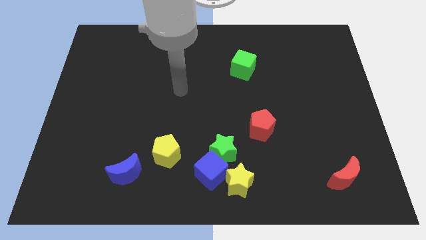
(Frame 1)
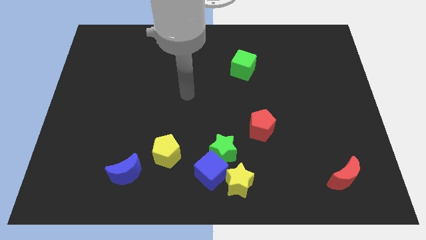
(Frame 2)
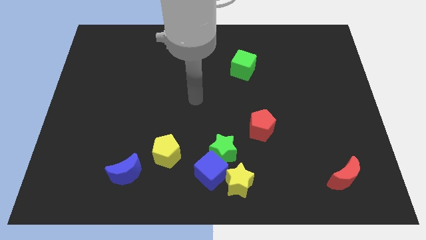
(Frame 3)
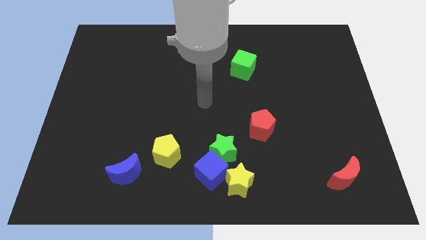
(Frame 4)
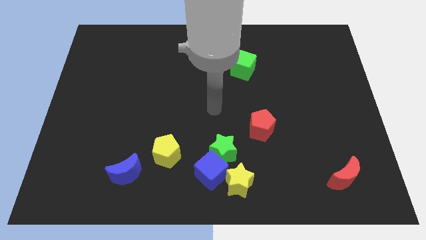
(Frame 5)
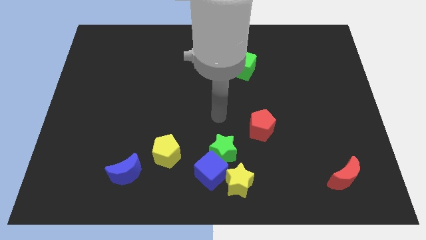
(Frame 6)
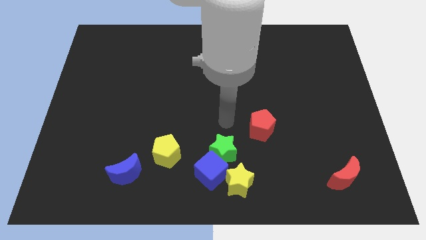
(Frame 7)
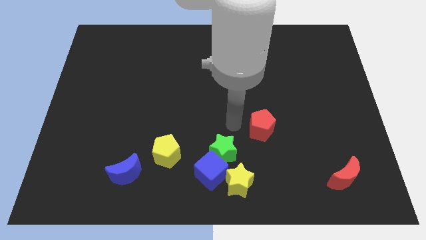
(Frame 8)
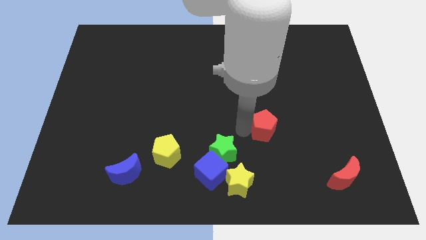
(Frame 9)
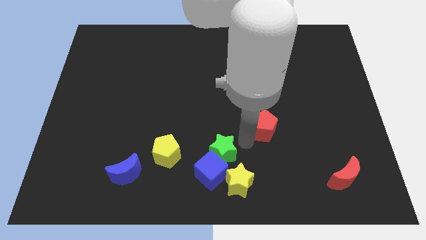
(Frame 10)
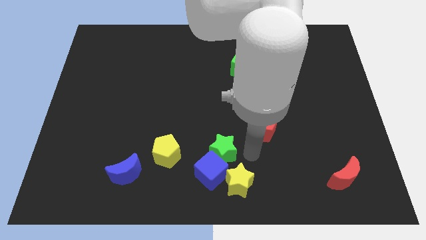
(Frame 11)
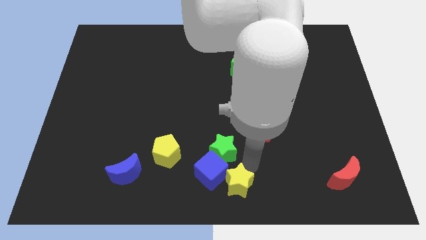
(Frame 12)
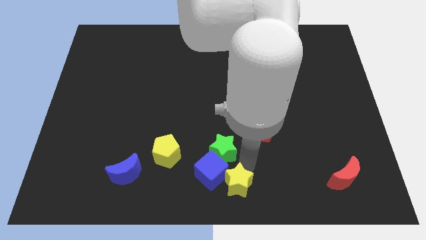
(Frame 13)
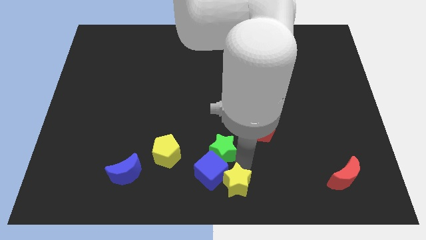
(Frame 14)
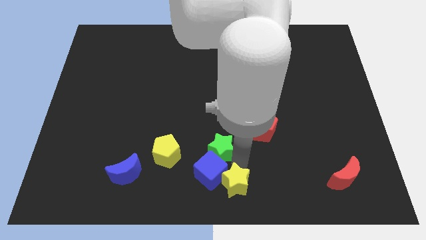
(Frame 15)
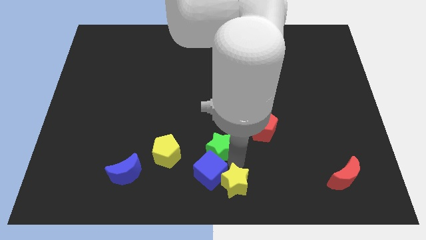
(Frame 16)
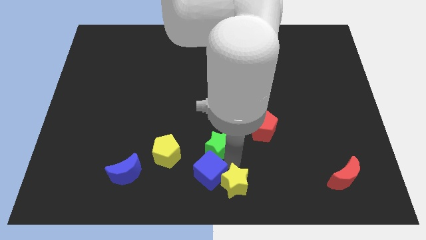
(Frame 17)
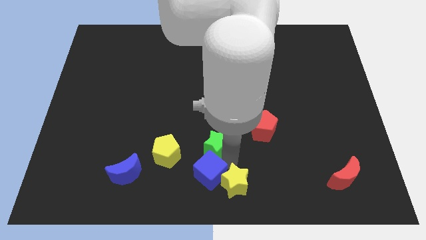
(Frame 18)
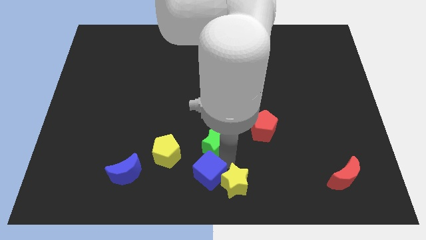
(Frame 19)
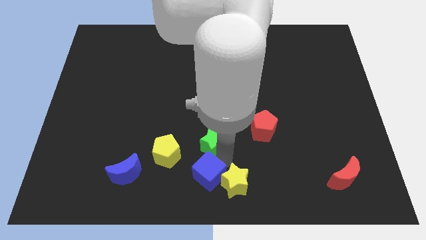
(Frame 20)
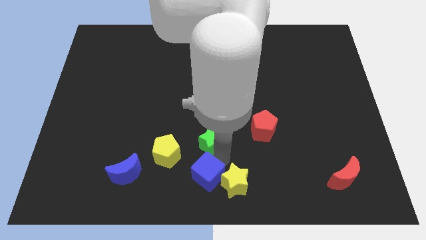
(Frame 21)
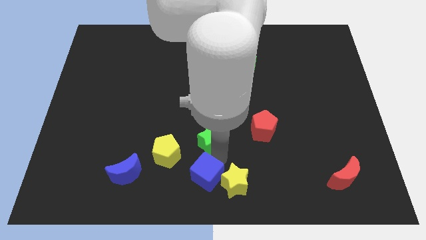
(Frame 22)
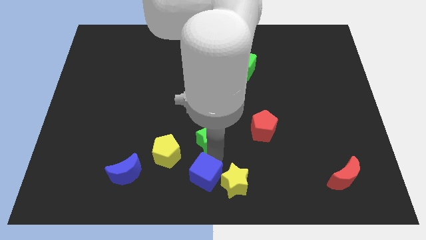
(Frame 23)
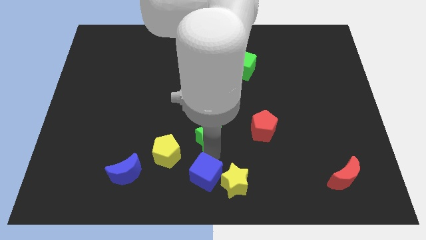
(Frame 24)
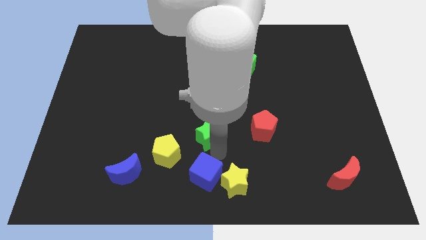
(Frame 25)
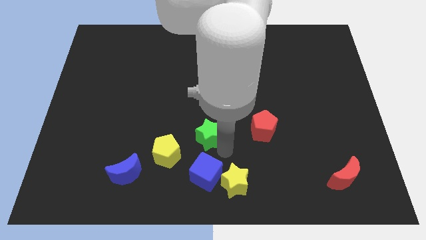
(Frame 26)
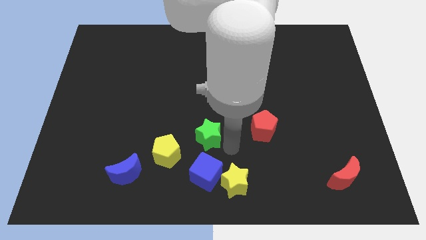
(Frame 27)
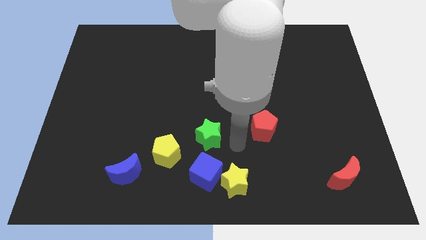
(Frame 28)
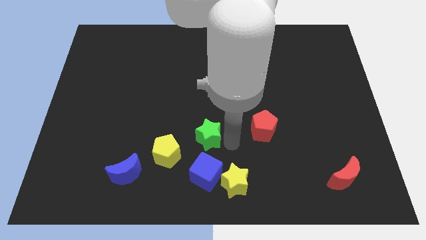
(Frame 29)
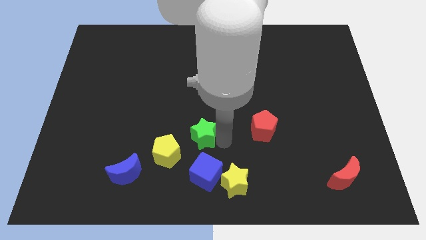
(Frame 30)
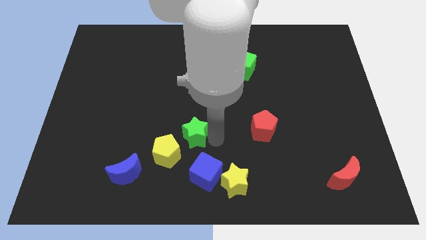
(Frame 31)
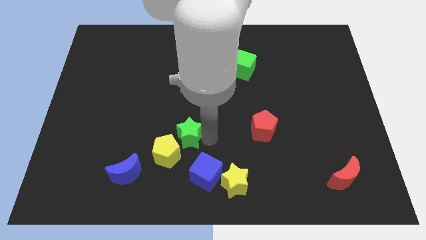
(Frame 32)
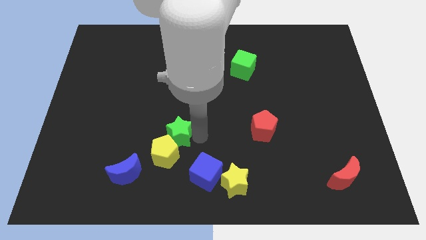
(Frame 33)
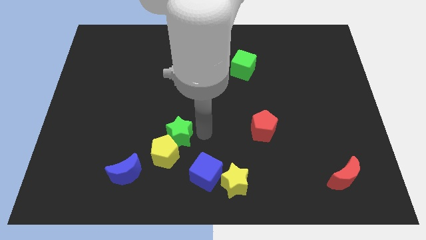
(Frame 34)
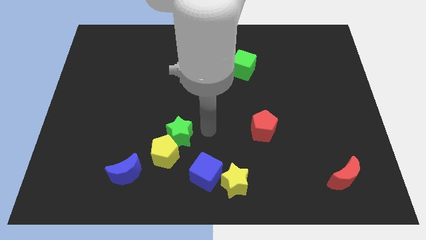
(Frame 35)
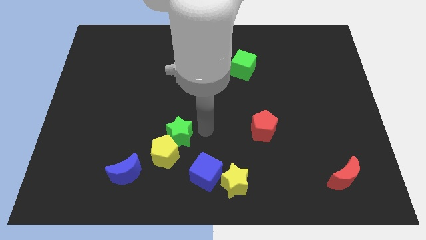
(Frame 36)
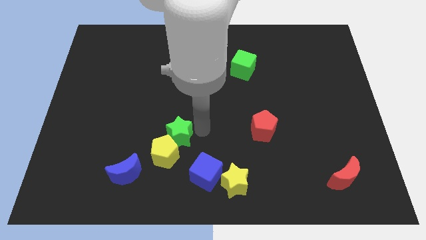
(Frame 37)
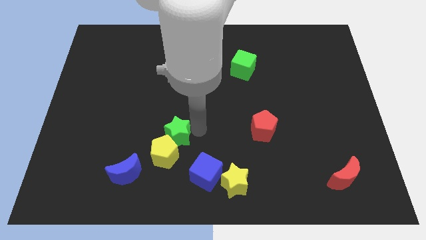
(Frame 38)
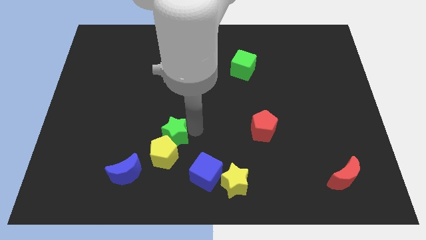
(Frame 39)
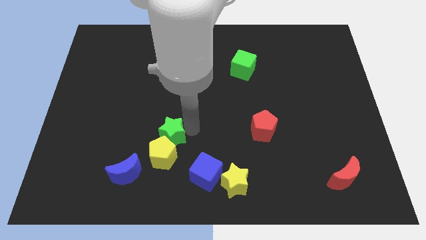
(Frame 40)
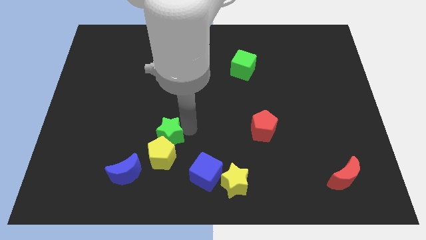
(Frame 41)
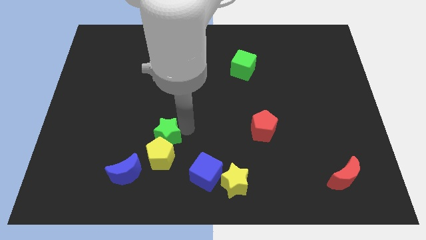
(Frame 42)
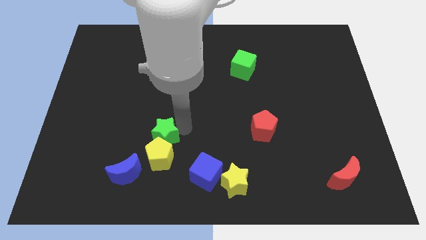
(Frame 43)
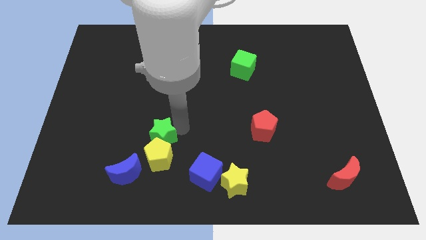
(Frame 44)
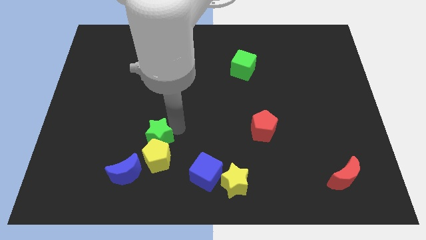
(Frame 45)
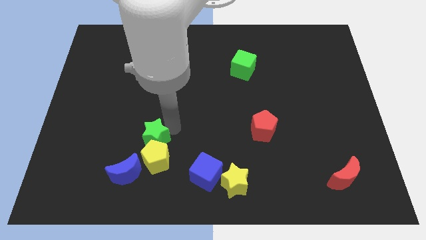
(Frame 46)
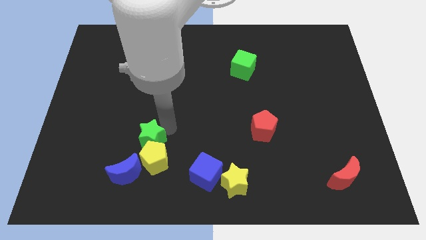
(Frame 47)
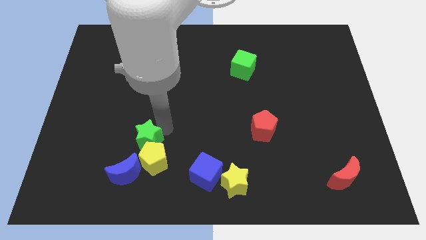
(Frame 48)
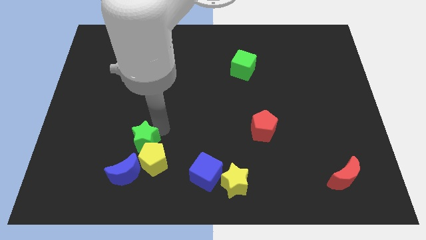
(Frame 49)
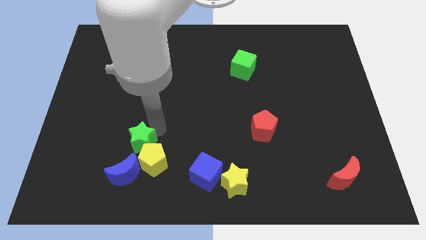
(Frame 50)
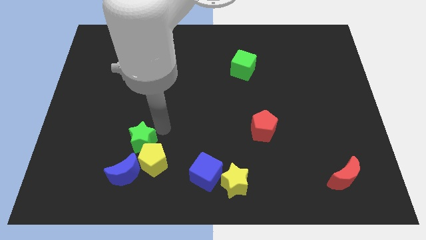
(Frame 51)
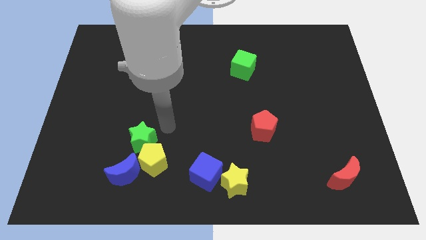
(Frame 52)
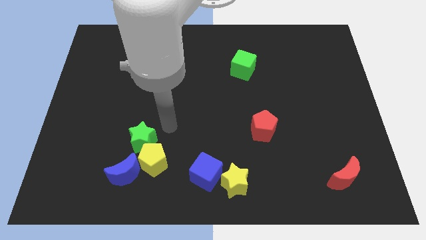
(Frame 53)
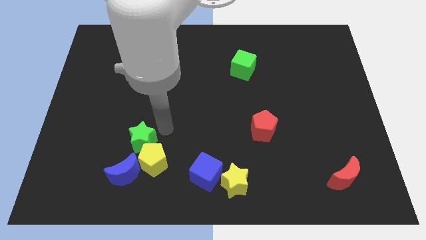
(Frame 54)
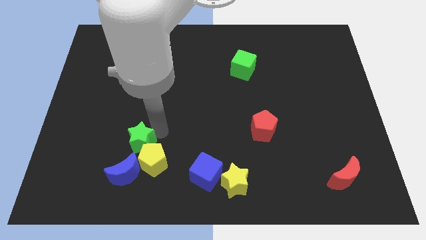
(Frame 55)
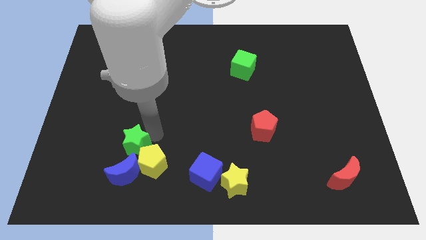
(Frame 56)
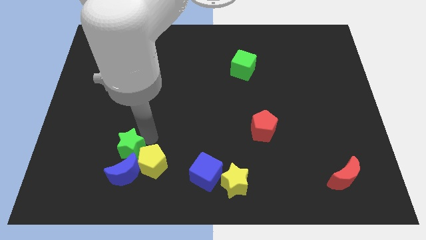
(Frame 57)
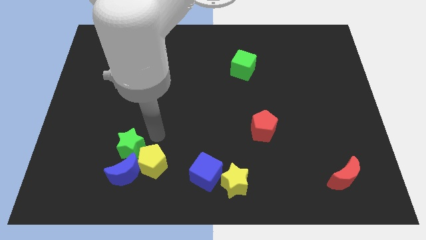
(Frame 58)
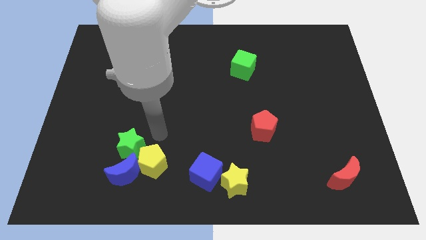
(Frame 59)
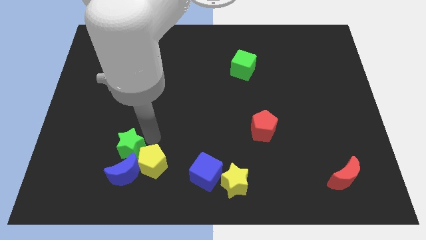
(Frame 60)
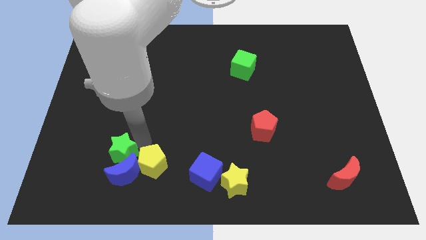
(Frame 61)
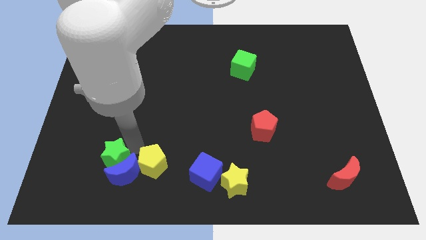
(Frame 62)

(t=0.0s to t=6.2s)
put the green star to the left of the blue moon

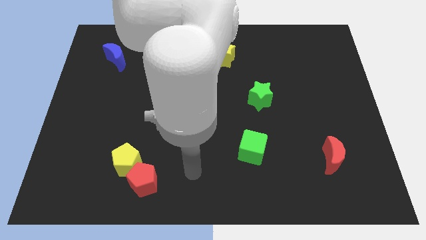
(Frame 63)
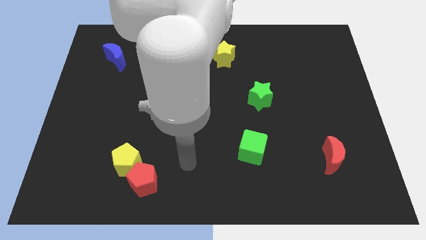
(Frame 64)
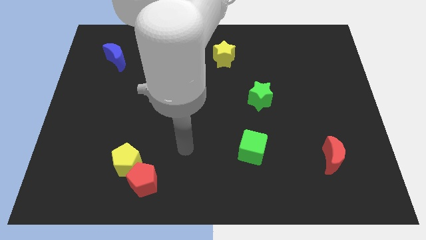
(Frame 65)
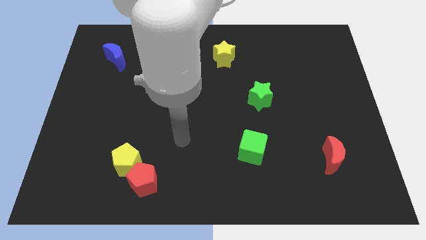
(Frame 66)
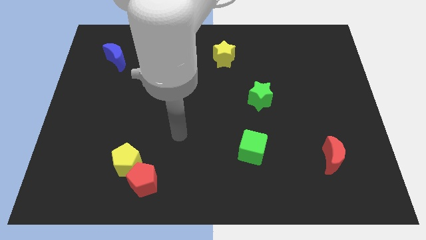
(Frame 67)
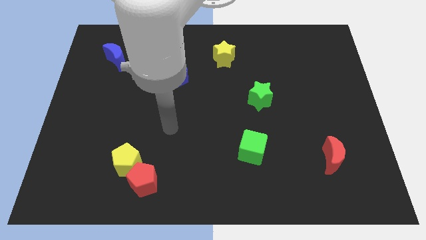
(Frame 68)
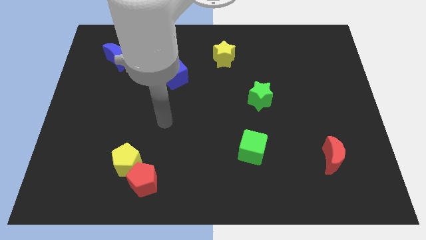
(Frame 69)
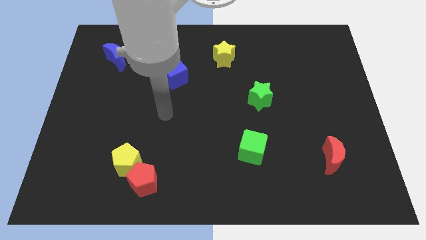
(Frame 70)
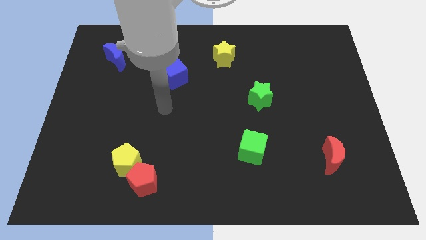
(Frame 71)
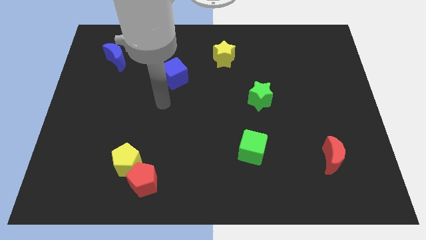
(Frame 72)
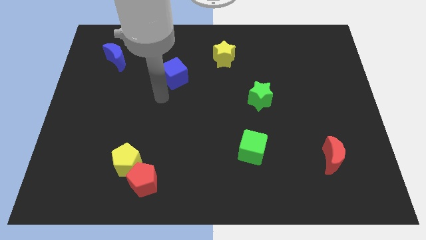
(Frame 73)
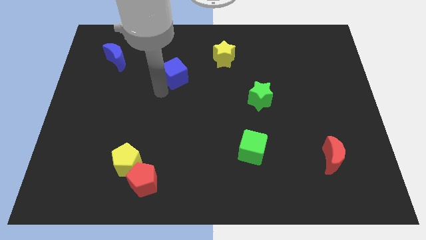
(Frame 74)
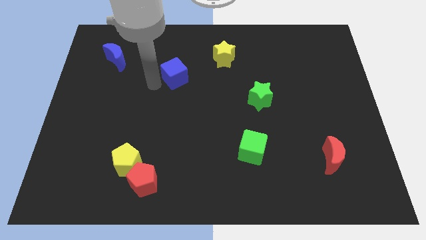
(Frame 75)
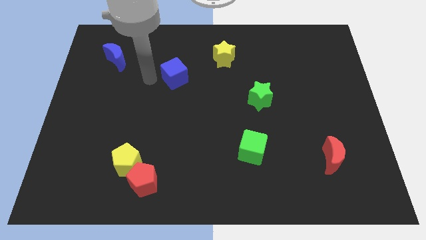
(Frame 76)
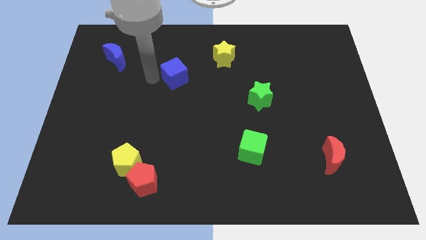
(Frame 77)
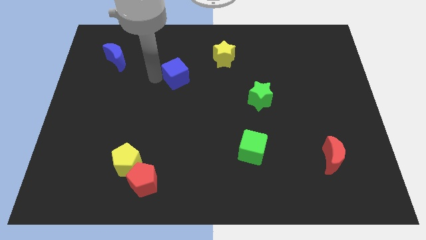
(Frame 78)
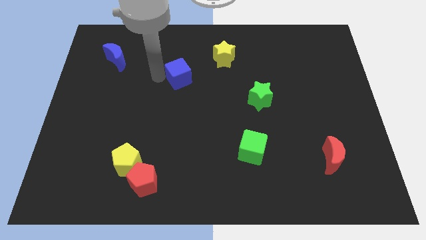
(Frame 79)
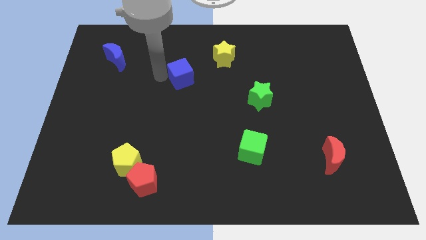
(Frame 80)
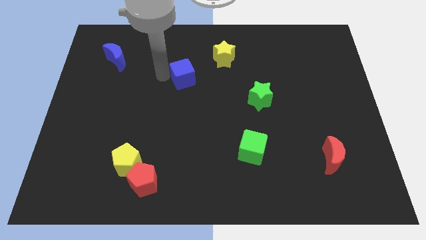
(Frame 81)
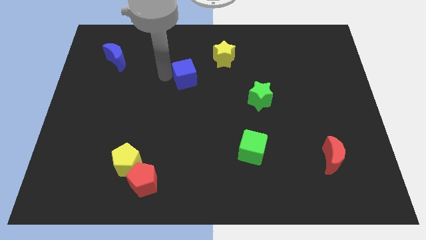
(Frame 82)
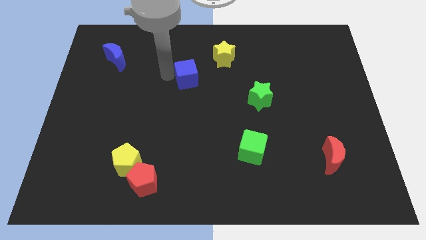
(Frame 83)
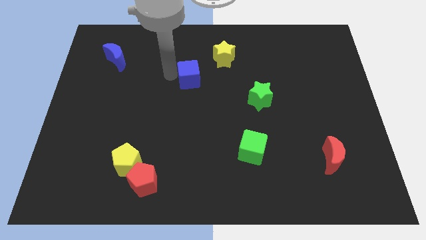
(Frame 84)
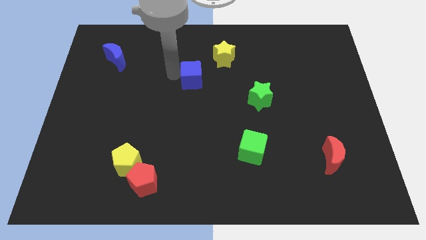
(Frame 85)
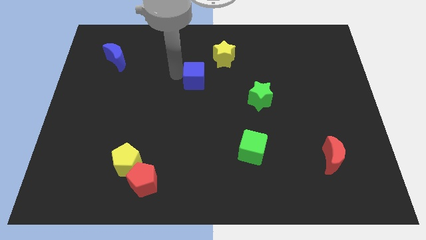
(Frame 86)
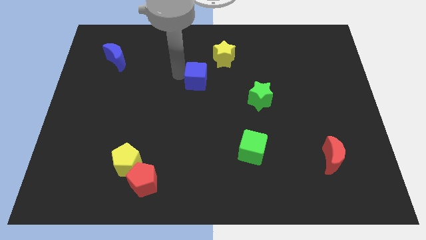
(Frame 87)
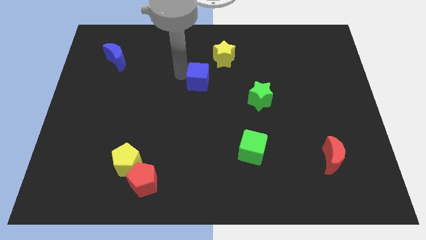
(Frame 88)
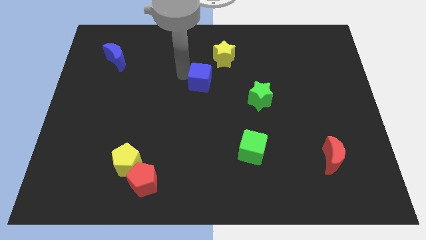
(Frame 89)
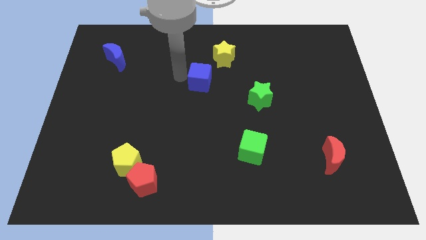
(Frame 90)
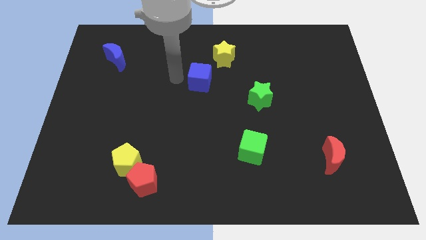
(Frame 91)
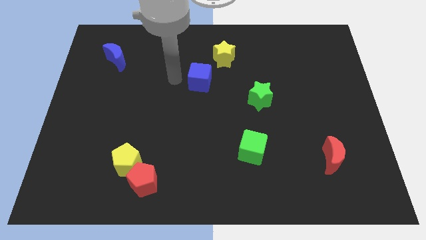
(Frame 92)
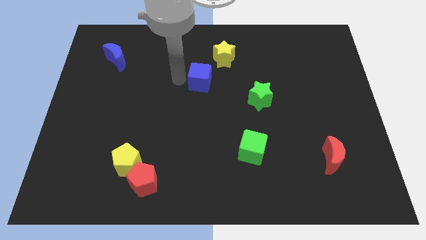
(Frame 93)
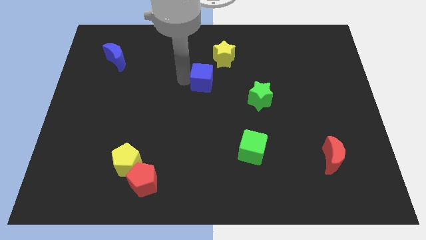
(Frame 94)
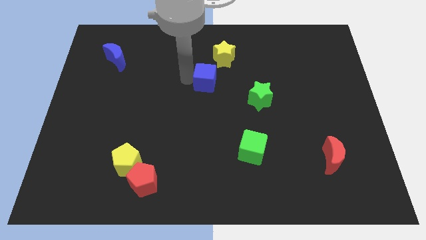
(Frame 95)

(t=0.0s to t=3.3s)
push the blue cube below the yellow star
